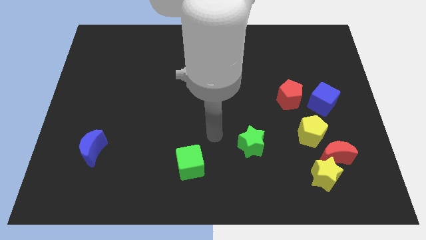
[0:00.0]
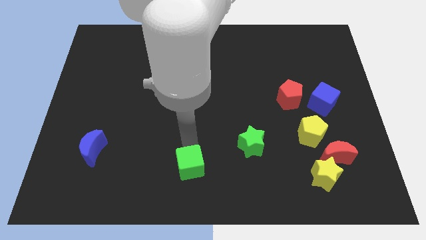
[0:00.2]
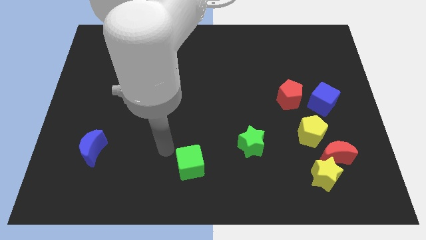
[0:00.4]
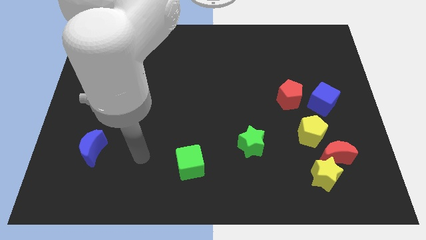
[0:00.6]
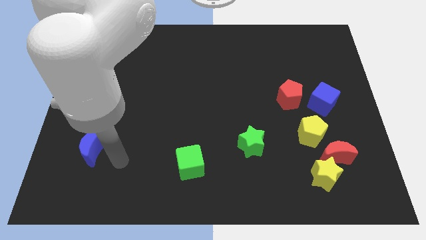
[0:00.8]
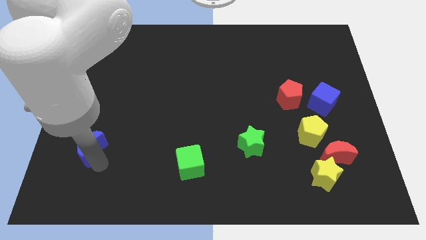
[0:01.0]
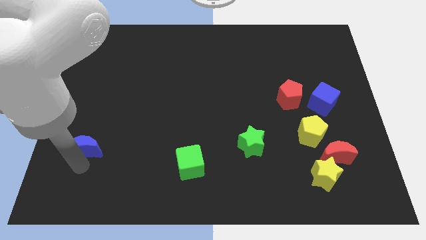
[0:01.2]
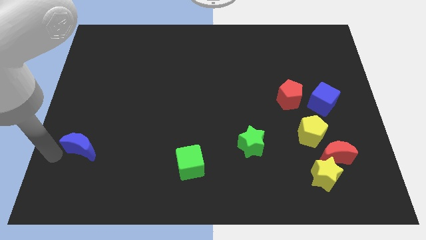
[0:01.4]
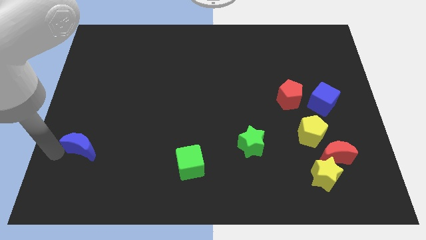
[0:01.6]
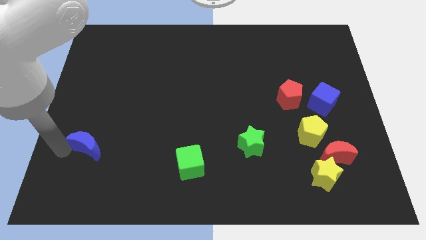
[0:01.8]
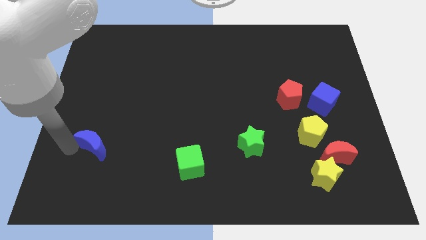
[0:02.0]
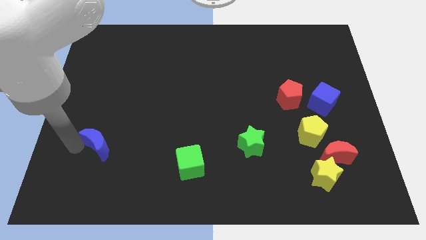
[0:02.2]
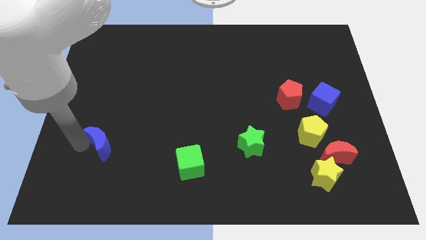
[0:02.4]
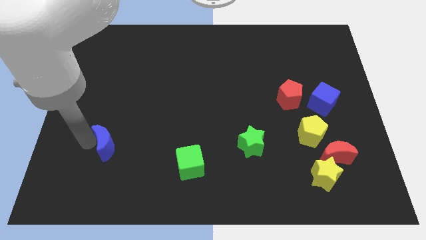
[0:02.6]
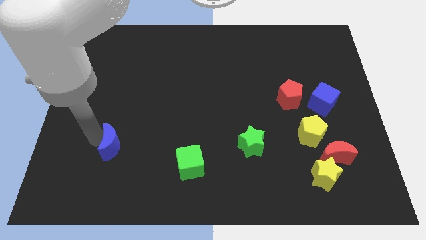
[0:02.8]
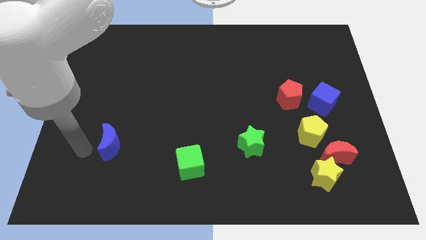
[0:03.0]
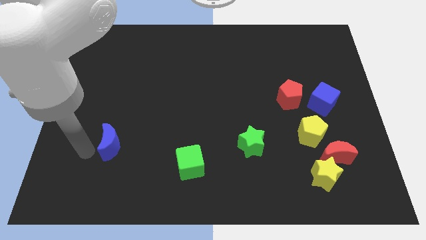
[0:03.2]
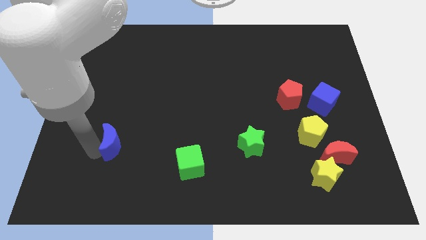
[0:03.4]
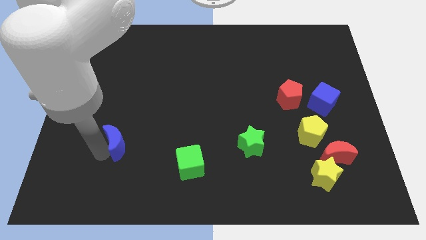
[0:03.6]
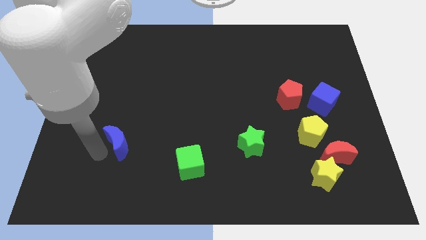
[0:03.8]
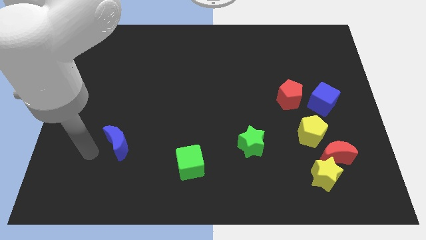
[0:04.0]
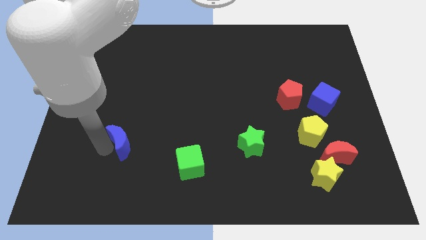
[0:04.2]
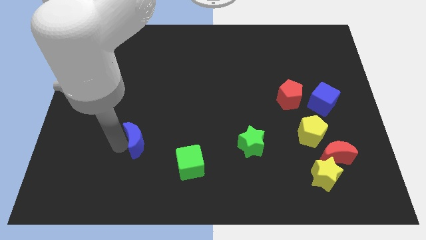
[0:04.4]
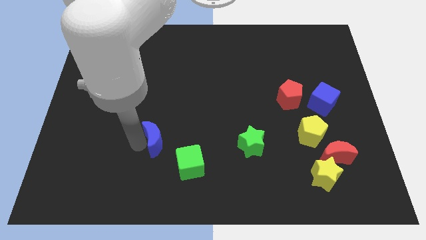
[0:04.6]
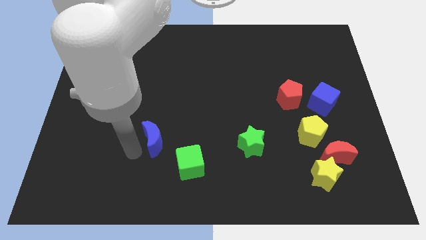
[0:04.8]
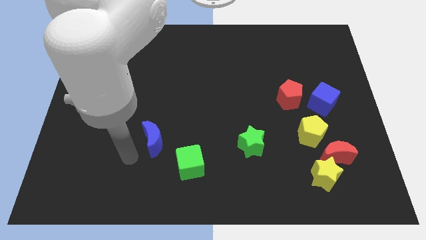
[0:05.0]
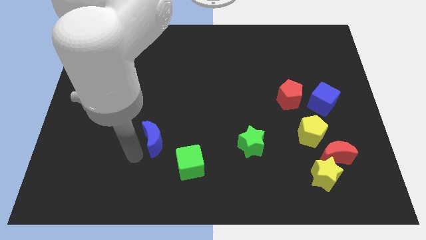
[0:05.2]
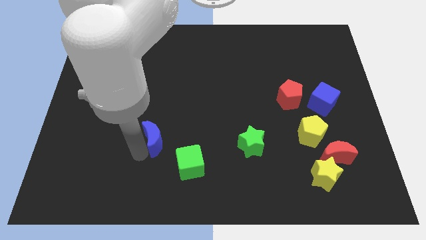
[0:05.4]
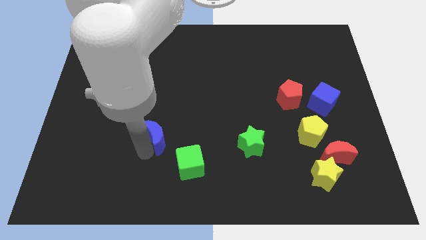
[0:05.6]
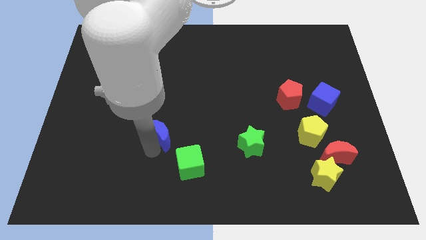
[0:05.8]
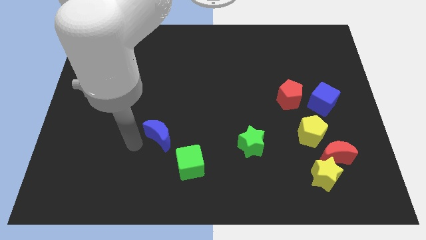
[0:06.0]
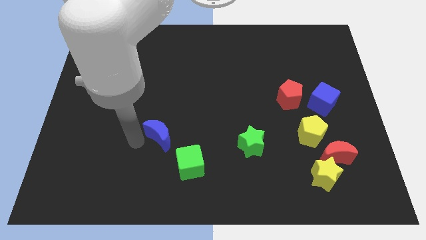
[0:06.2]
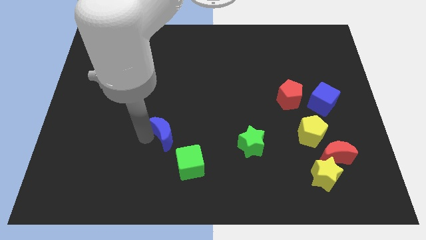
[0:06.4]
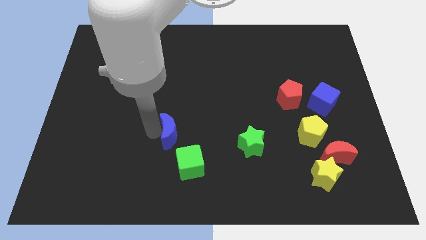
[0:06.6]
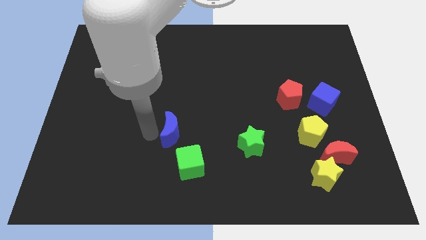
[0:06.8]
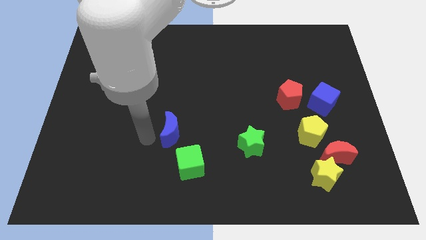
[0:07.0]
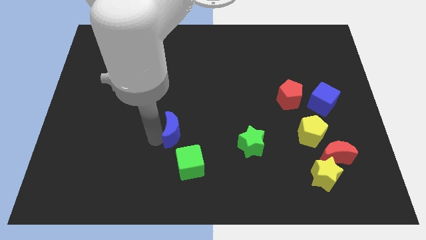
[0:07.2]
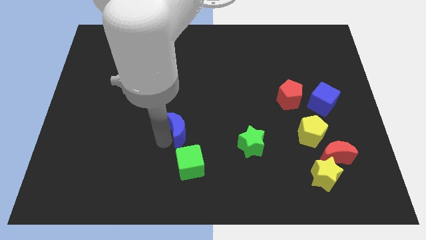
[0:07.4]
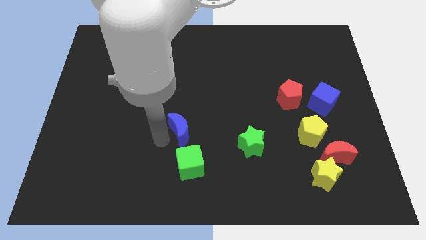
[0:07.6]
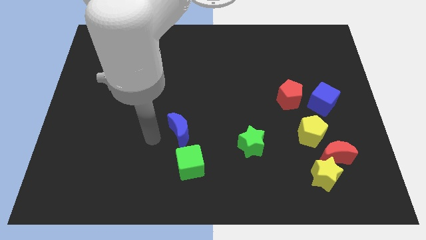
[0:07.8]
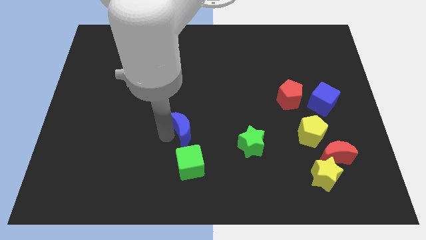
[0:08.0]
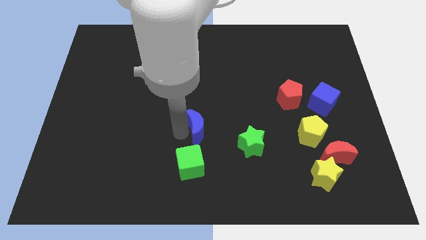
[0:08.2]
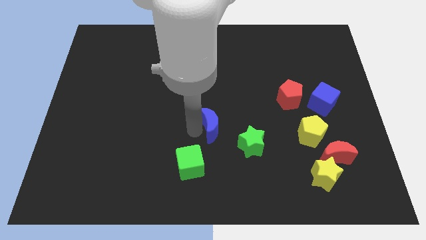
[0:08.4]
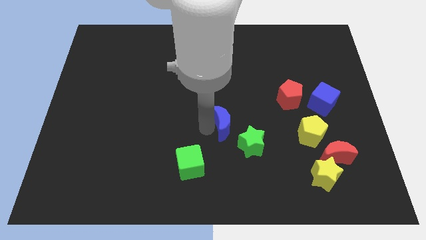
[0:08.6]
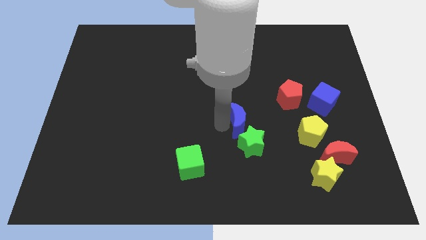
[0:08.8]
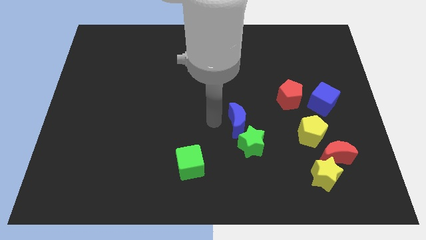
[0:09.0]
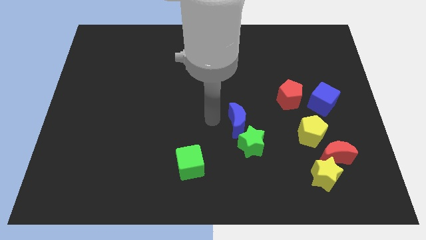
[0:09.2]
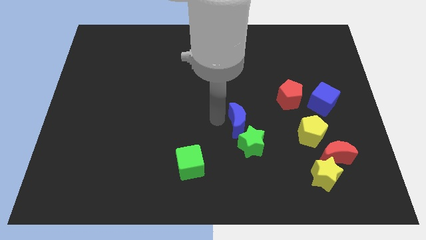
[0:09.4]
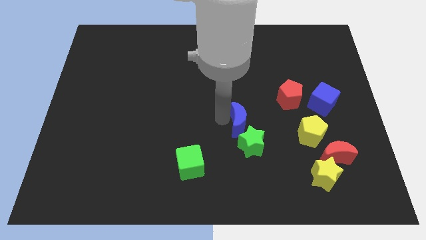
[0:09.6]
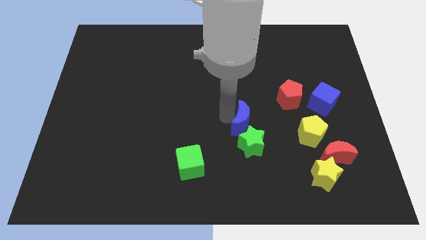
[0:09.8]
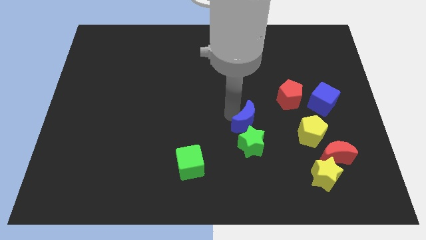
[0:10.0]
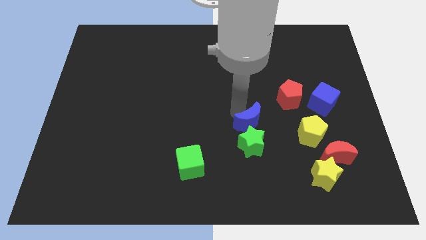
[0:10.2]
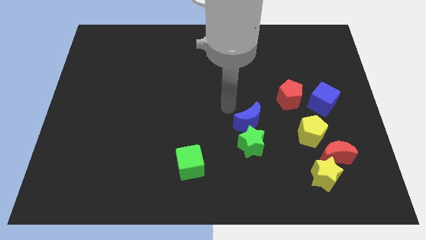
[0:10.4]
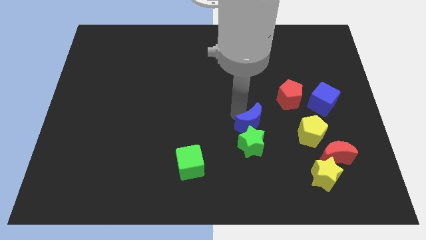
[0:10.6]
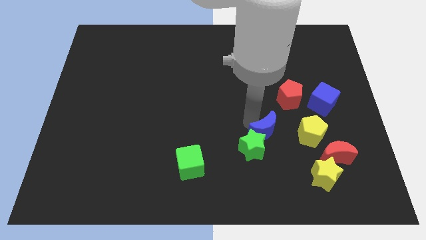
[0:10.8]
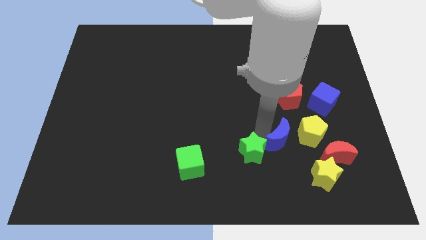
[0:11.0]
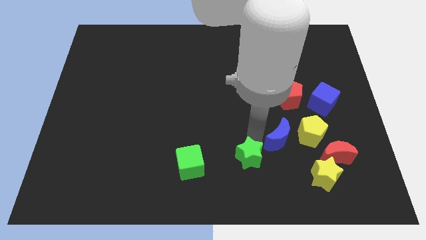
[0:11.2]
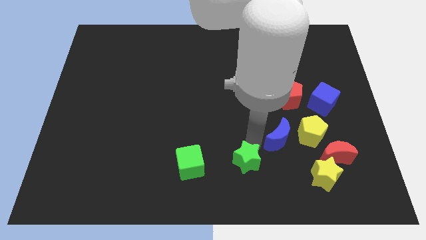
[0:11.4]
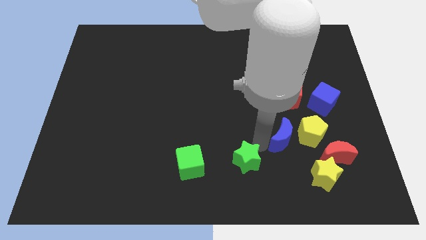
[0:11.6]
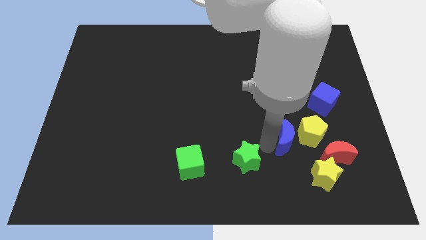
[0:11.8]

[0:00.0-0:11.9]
push the blue moon close to the yellow pentagon

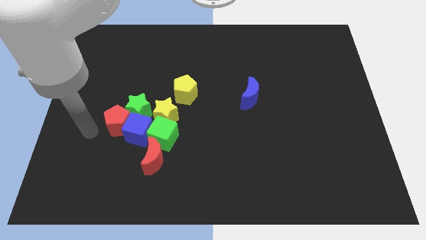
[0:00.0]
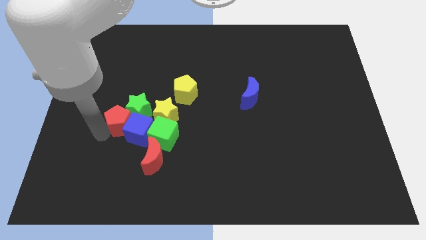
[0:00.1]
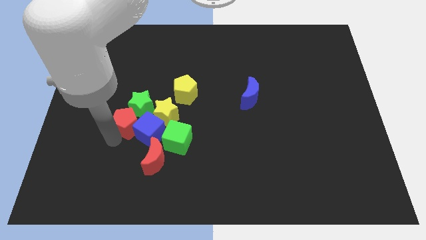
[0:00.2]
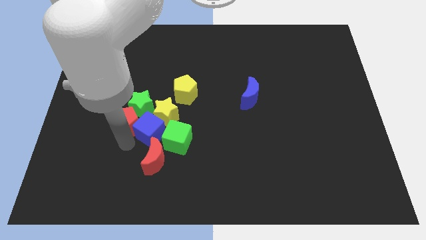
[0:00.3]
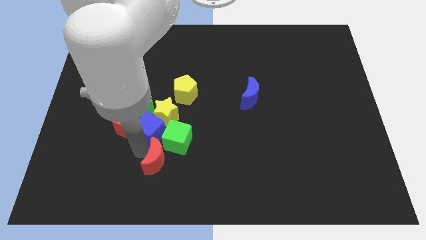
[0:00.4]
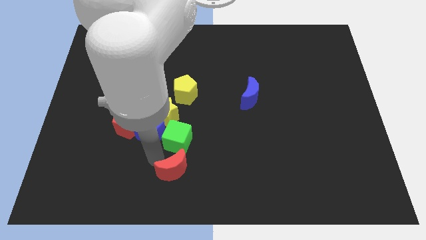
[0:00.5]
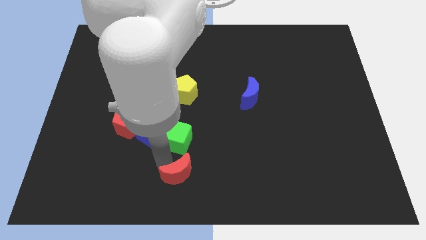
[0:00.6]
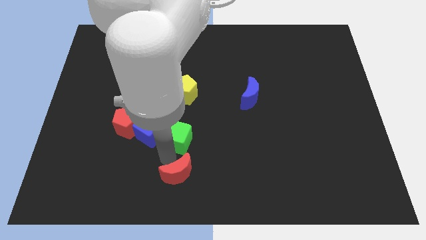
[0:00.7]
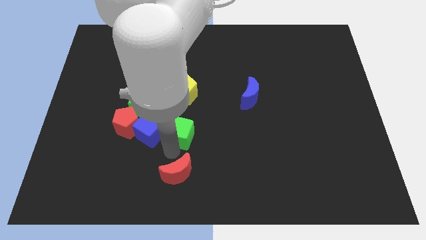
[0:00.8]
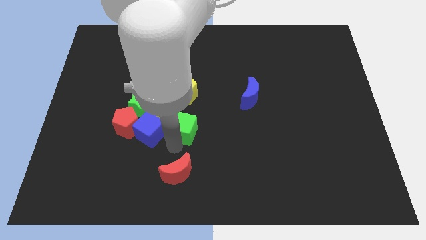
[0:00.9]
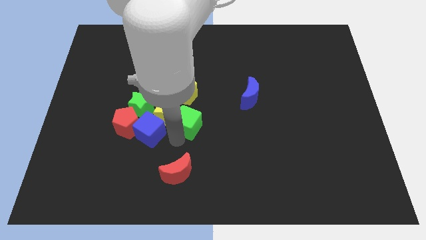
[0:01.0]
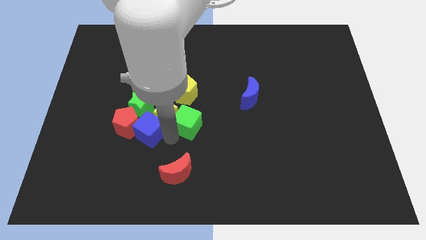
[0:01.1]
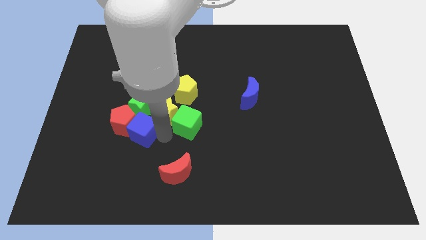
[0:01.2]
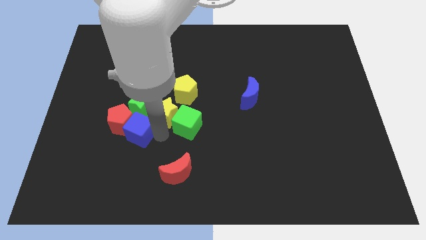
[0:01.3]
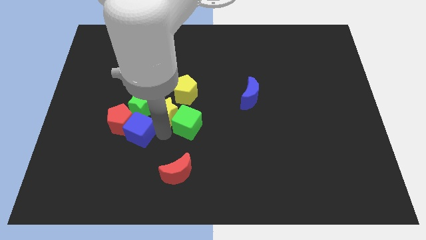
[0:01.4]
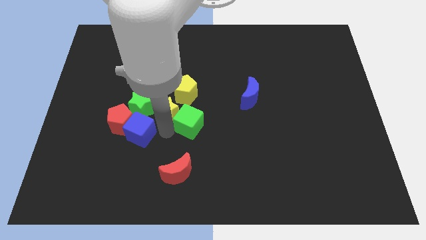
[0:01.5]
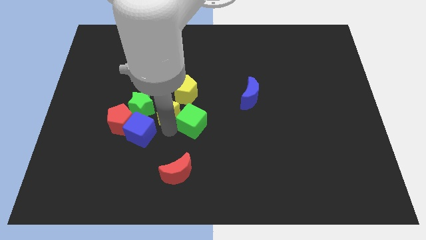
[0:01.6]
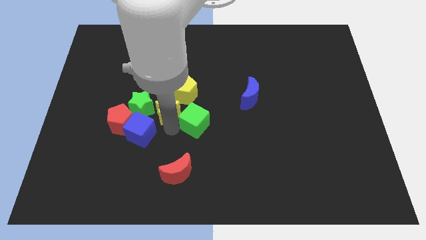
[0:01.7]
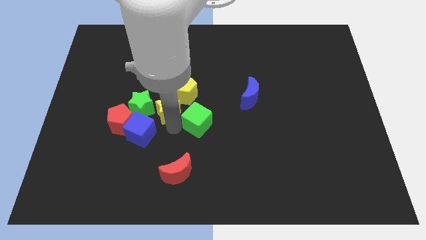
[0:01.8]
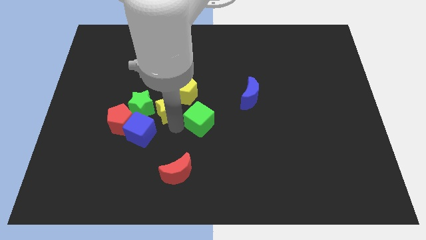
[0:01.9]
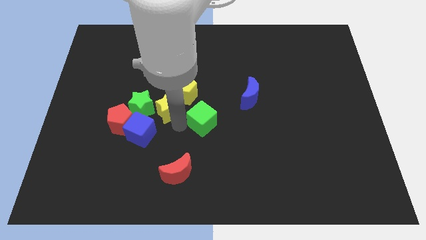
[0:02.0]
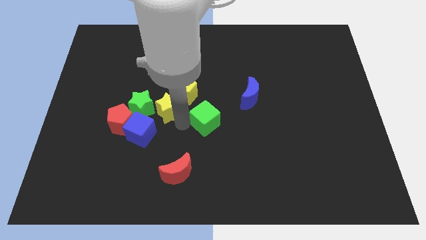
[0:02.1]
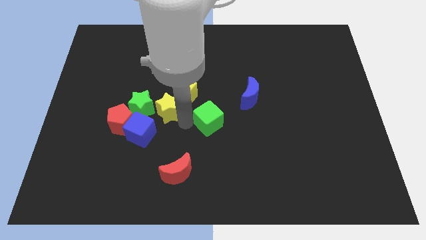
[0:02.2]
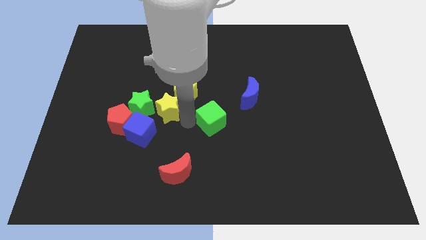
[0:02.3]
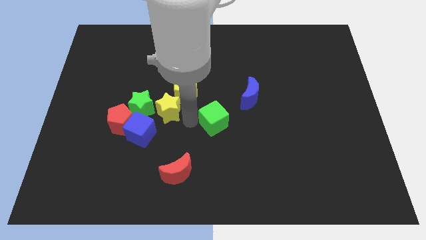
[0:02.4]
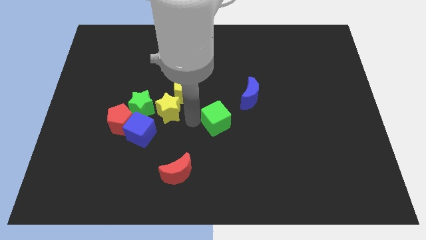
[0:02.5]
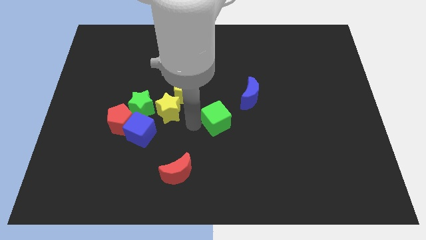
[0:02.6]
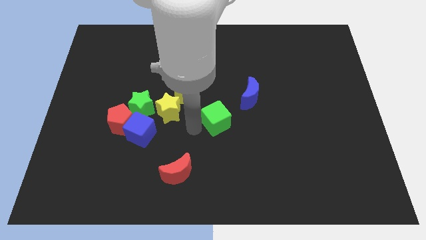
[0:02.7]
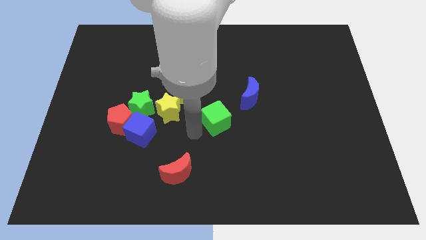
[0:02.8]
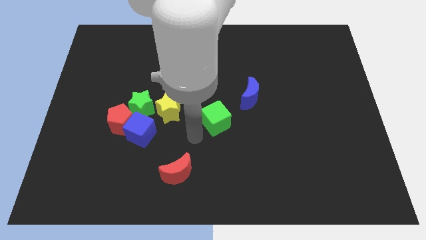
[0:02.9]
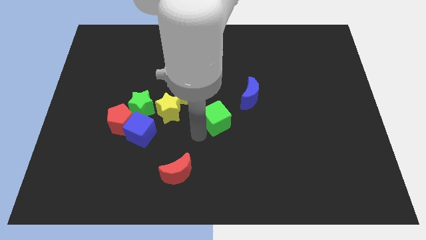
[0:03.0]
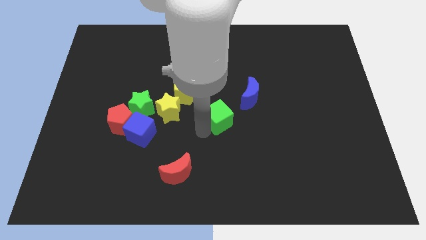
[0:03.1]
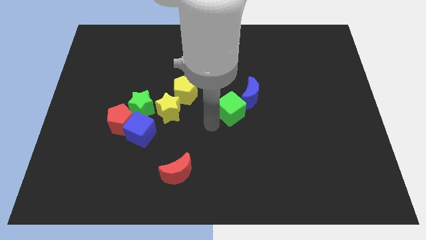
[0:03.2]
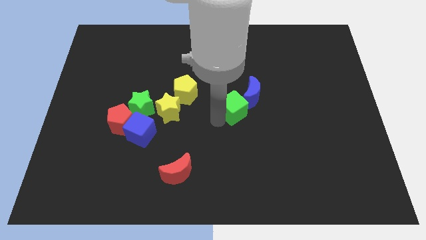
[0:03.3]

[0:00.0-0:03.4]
push the green cube close to the blue moon
